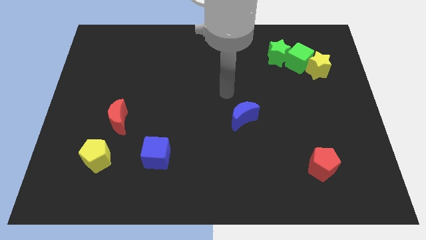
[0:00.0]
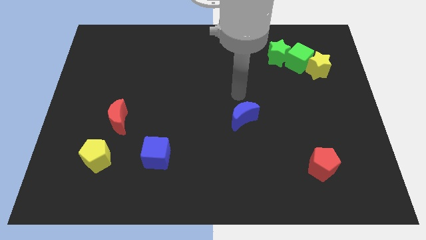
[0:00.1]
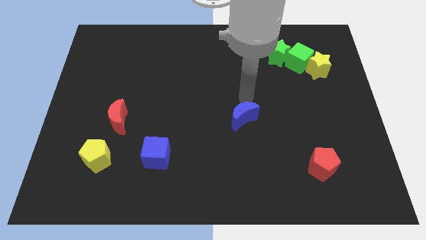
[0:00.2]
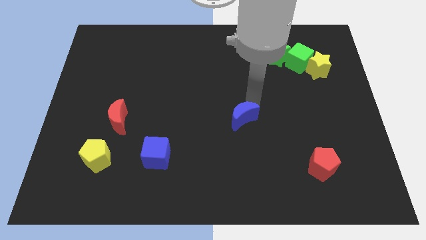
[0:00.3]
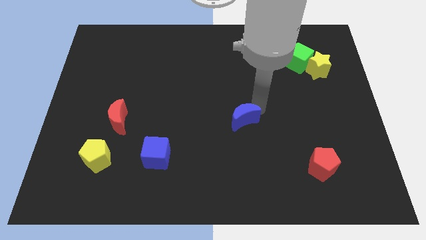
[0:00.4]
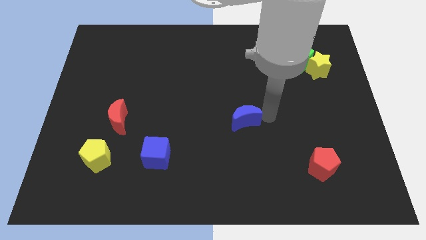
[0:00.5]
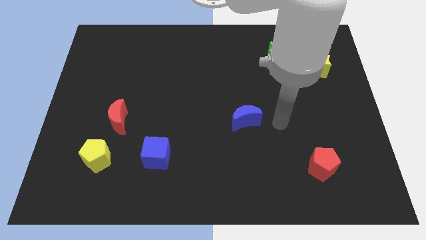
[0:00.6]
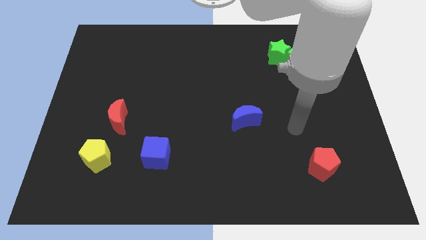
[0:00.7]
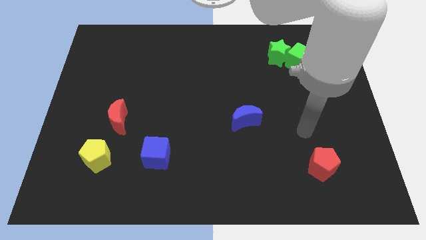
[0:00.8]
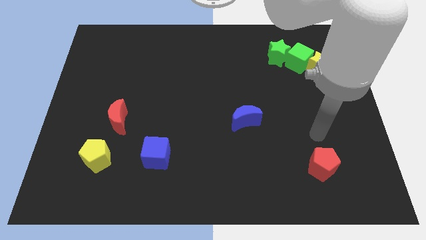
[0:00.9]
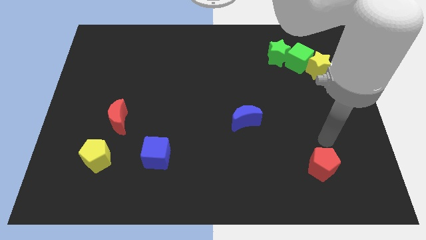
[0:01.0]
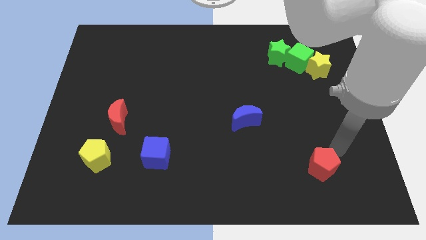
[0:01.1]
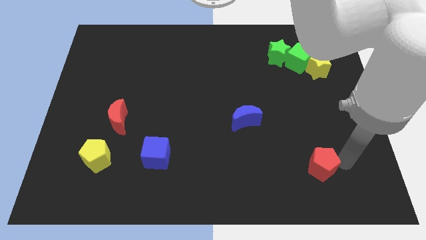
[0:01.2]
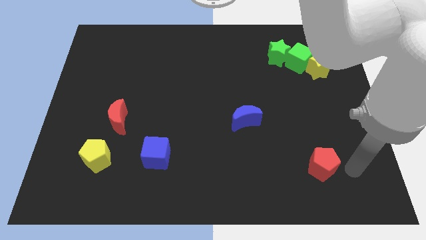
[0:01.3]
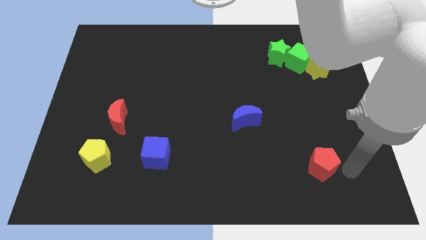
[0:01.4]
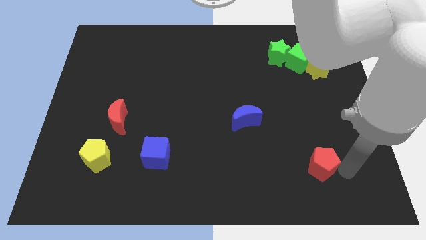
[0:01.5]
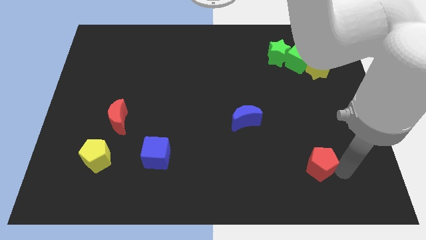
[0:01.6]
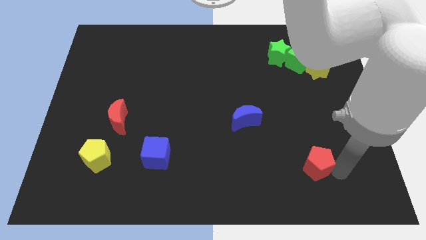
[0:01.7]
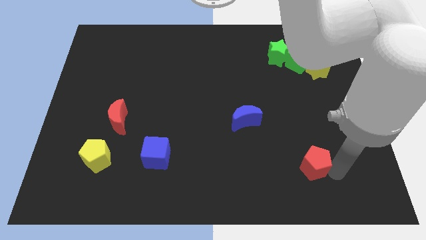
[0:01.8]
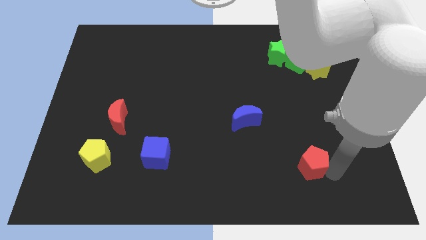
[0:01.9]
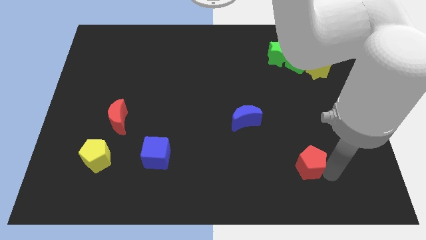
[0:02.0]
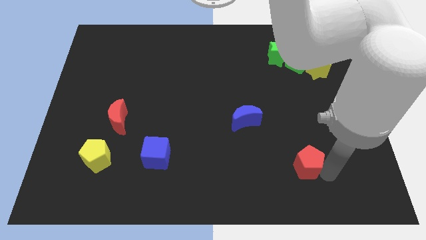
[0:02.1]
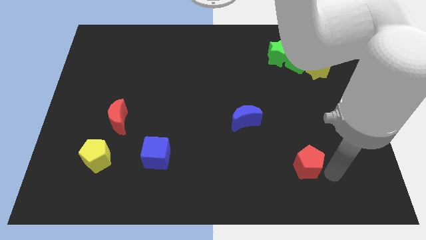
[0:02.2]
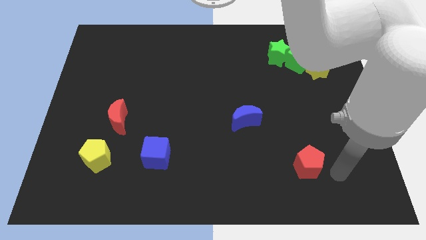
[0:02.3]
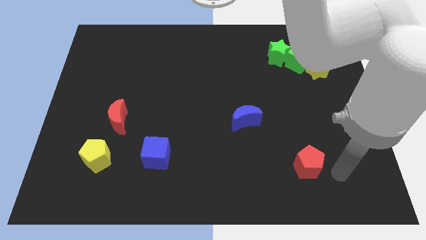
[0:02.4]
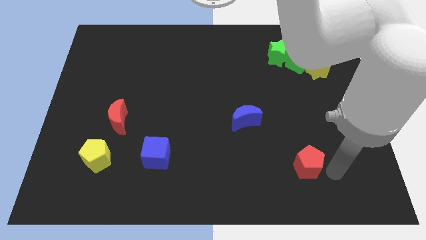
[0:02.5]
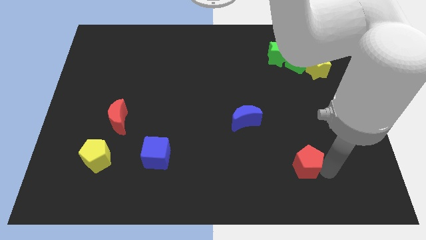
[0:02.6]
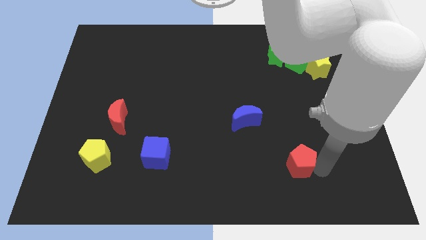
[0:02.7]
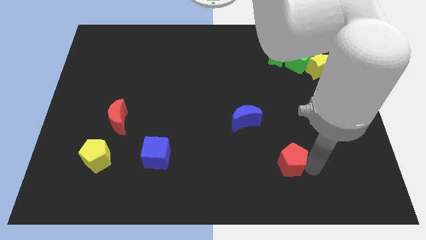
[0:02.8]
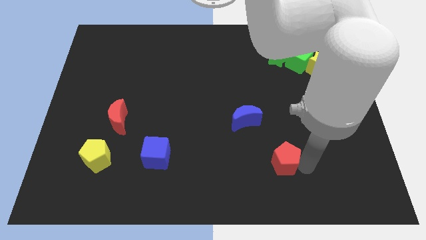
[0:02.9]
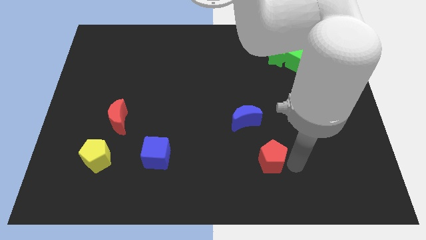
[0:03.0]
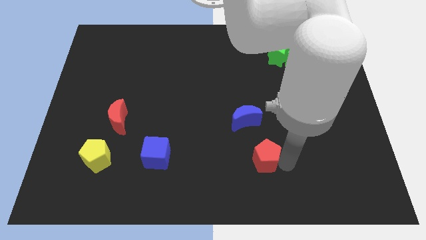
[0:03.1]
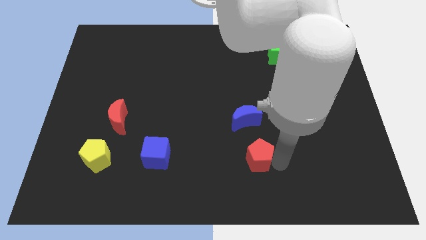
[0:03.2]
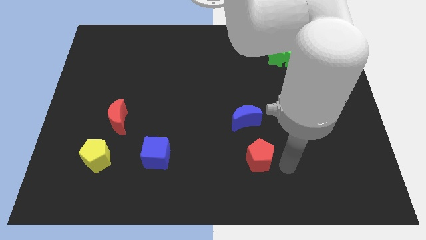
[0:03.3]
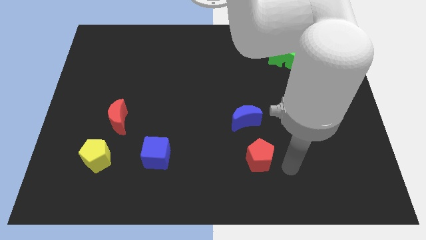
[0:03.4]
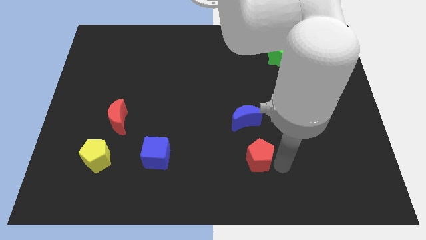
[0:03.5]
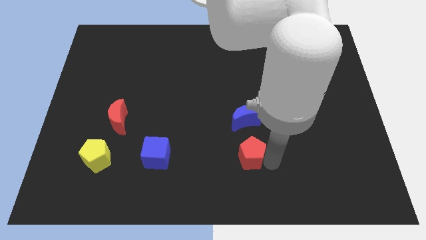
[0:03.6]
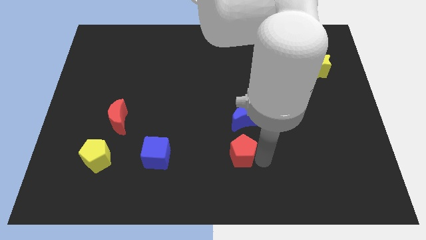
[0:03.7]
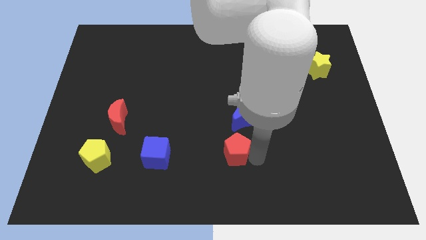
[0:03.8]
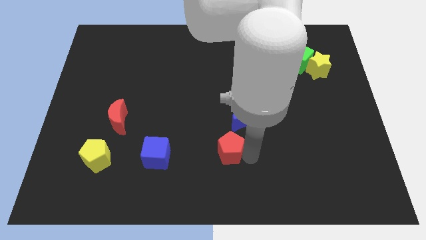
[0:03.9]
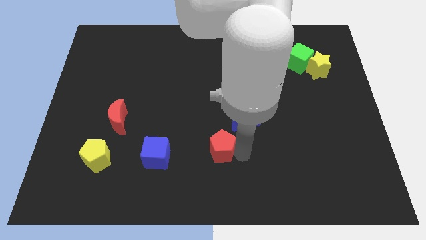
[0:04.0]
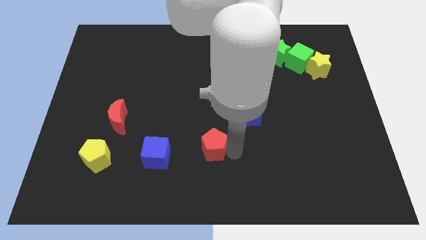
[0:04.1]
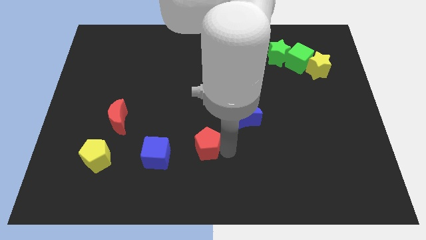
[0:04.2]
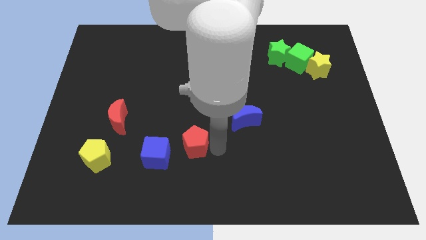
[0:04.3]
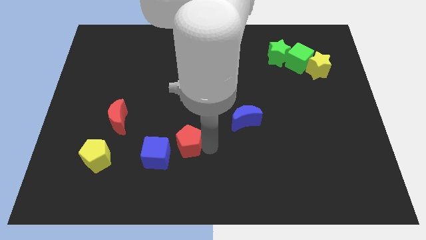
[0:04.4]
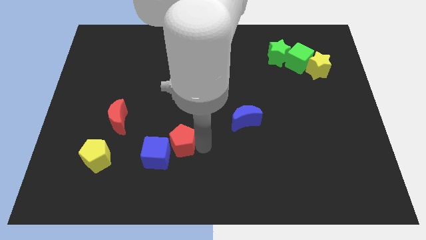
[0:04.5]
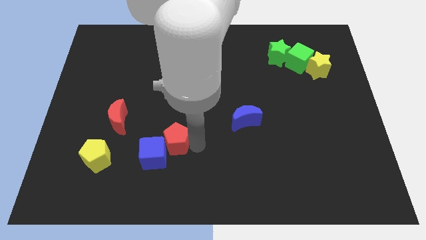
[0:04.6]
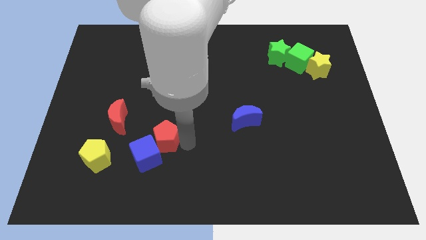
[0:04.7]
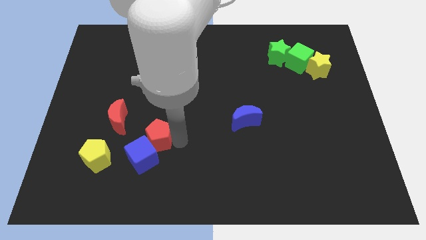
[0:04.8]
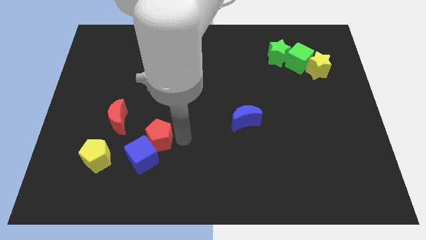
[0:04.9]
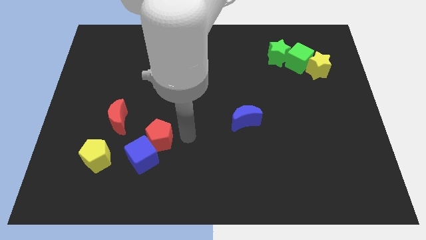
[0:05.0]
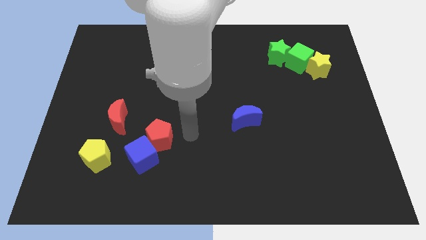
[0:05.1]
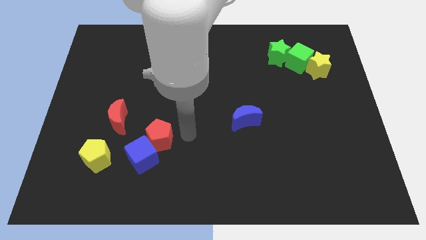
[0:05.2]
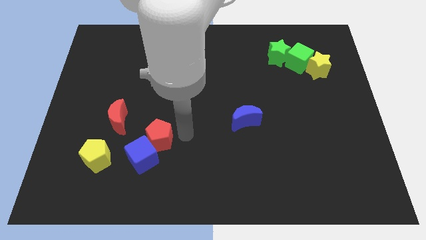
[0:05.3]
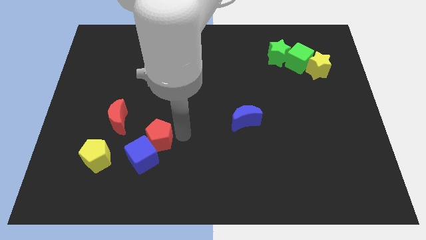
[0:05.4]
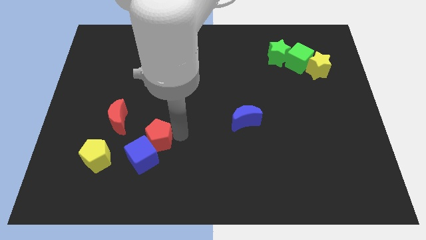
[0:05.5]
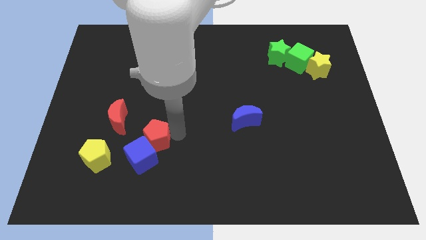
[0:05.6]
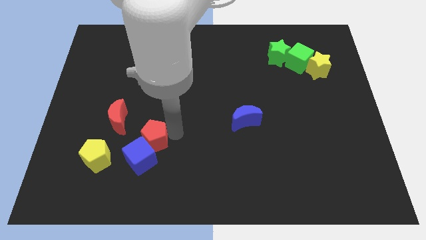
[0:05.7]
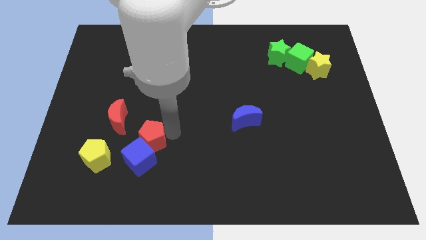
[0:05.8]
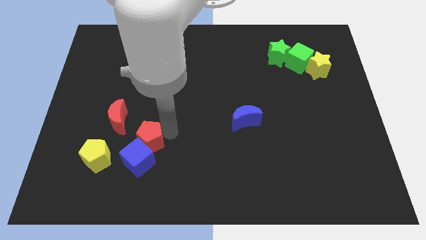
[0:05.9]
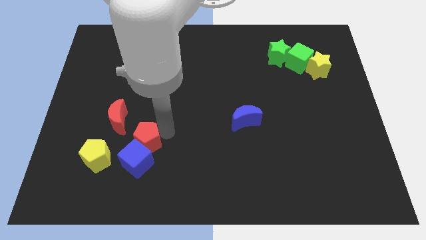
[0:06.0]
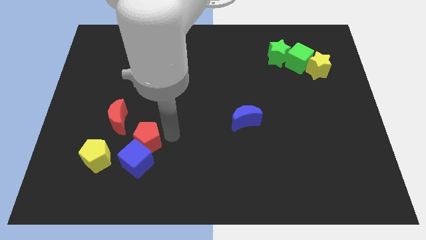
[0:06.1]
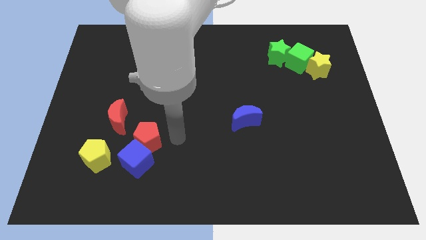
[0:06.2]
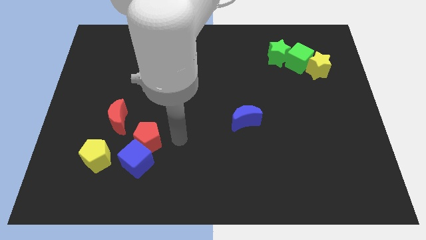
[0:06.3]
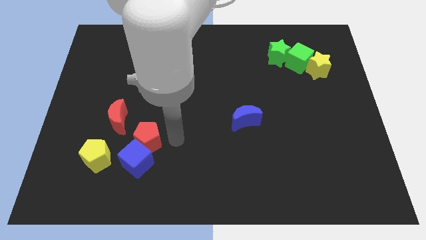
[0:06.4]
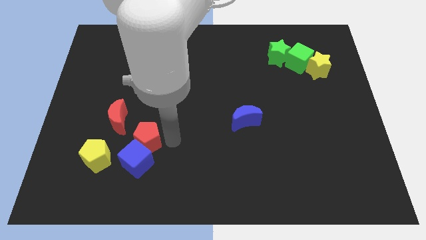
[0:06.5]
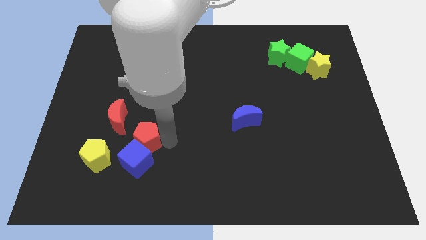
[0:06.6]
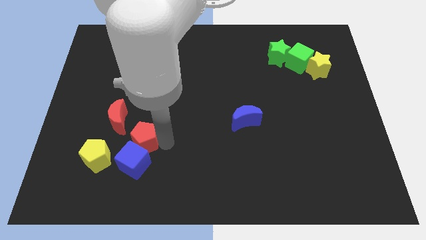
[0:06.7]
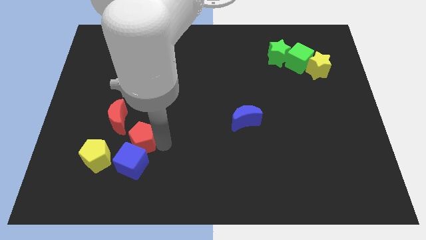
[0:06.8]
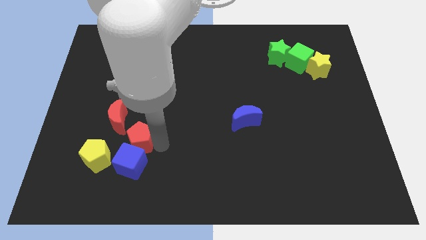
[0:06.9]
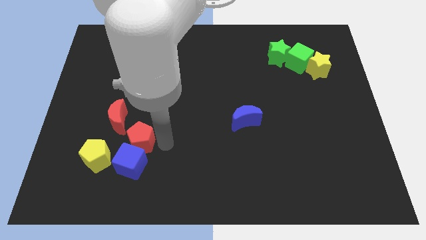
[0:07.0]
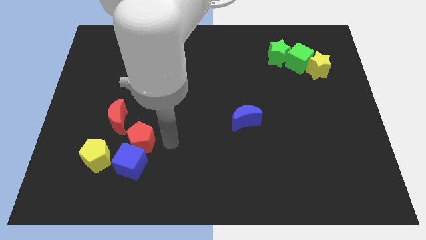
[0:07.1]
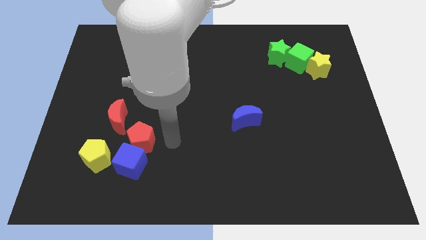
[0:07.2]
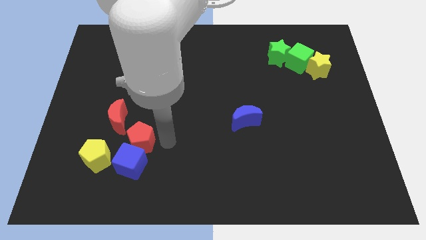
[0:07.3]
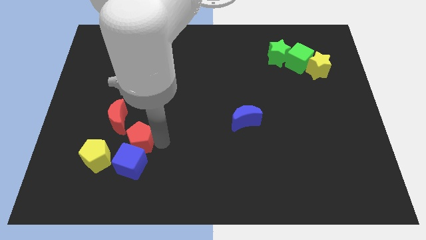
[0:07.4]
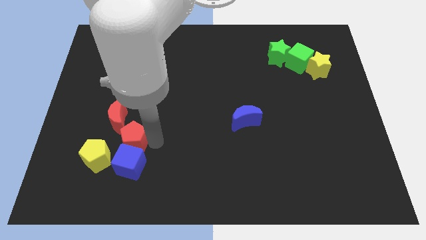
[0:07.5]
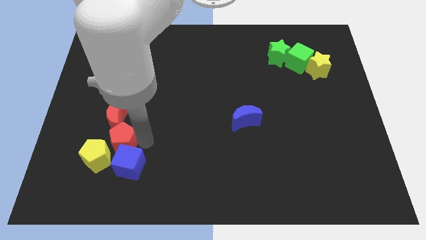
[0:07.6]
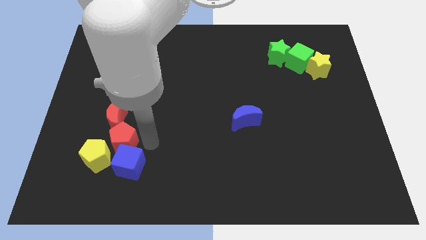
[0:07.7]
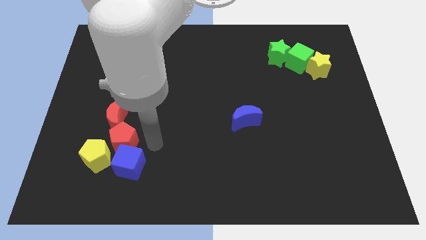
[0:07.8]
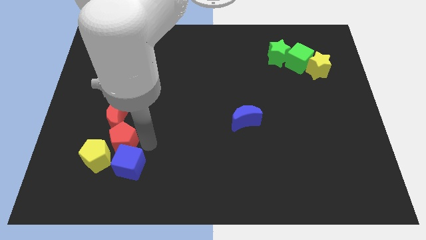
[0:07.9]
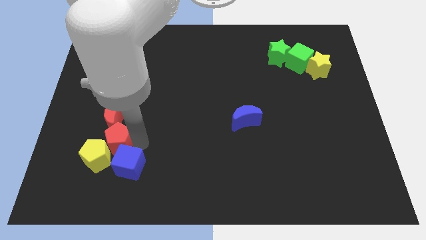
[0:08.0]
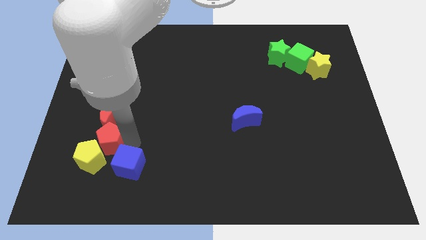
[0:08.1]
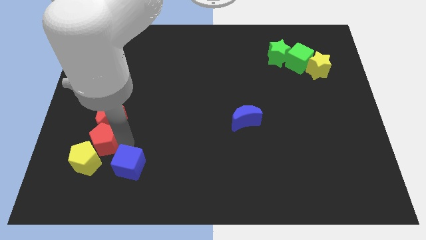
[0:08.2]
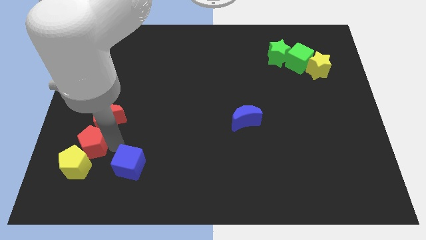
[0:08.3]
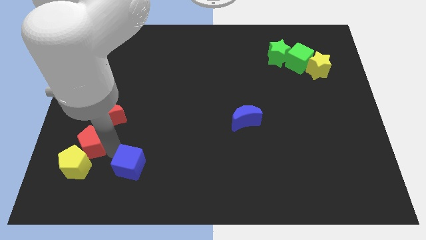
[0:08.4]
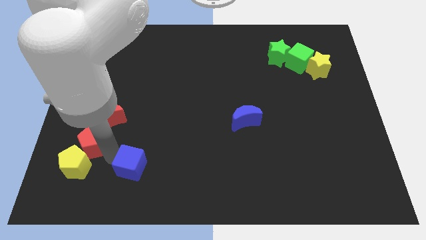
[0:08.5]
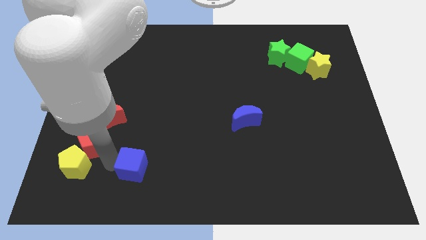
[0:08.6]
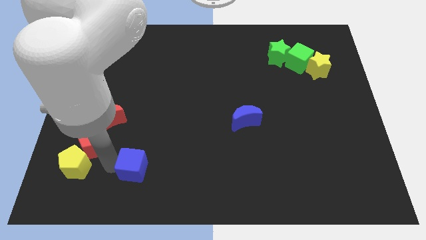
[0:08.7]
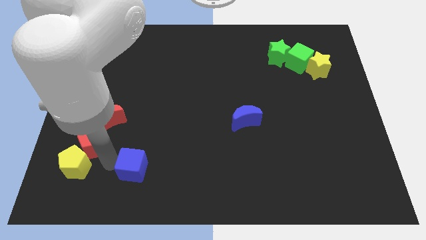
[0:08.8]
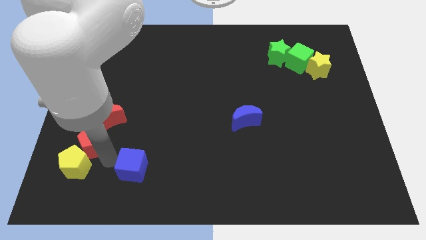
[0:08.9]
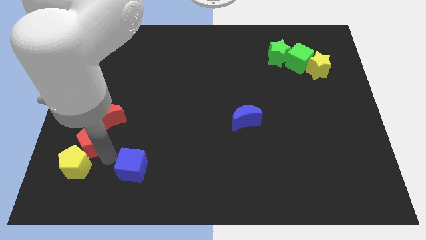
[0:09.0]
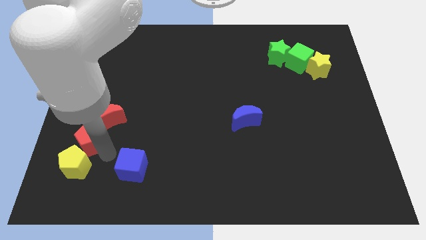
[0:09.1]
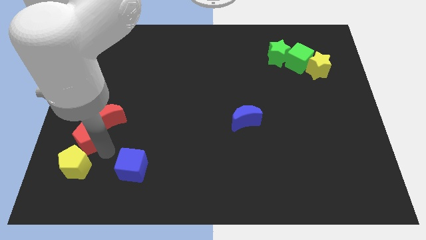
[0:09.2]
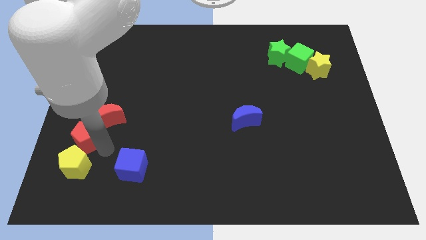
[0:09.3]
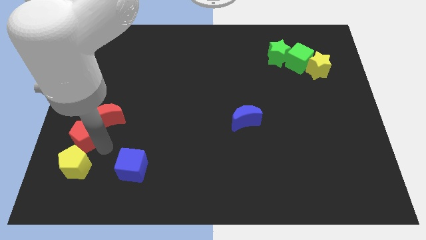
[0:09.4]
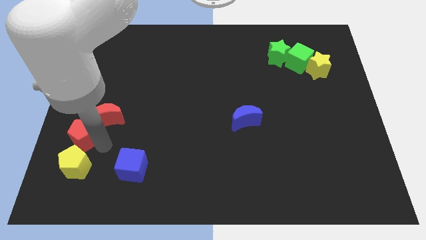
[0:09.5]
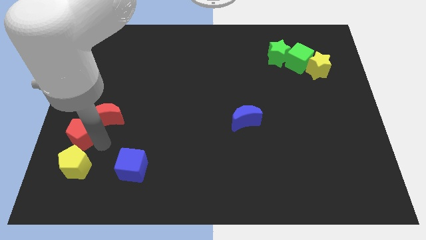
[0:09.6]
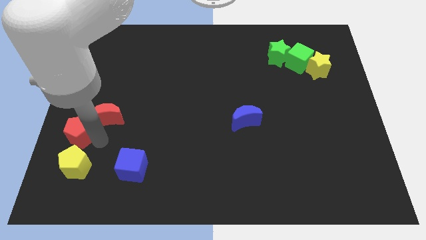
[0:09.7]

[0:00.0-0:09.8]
push the red pentagon to the left side
